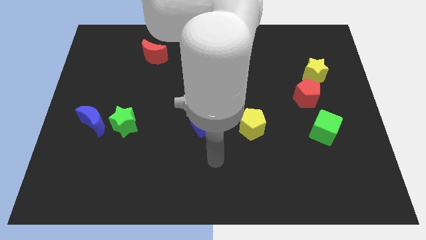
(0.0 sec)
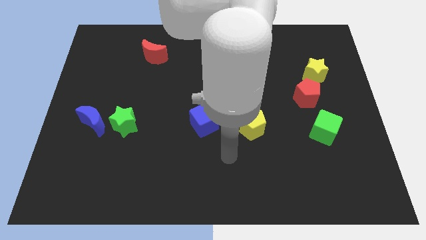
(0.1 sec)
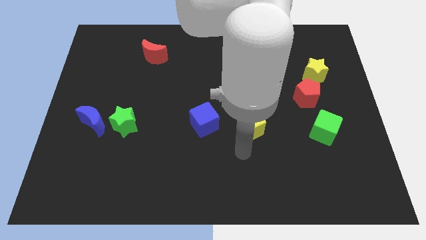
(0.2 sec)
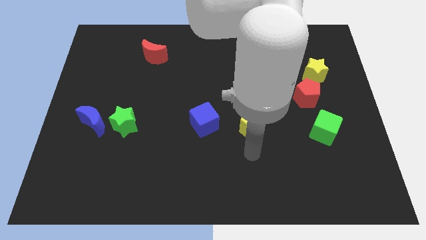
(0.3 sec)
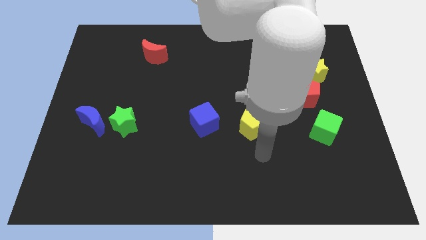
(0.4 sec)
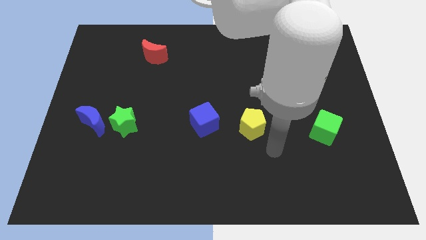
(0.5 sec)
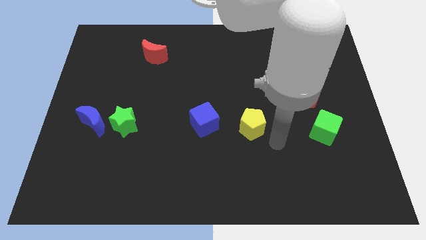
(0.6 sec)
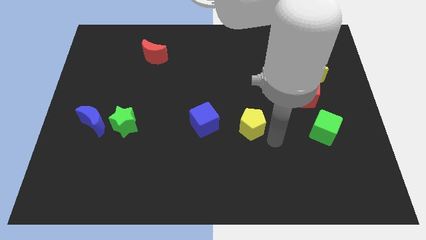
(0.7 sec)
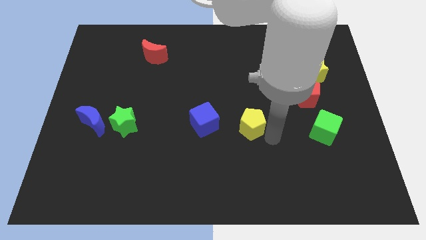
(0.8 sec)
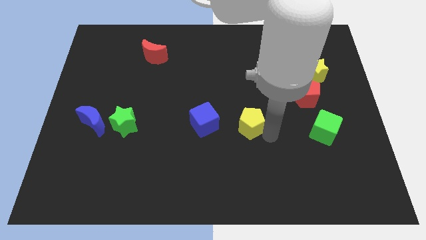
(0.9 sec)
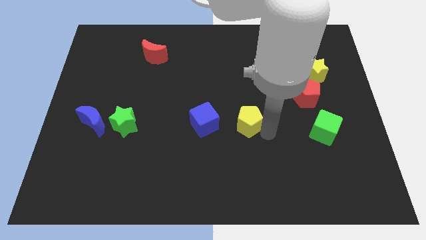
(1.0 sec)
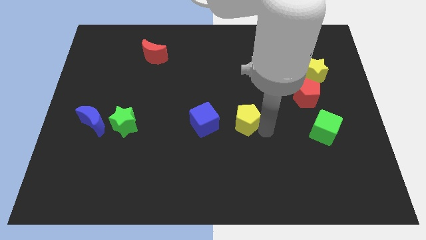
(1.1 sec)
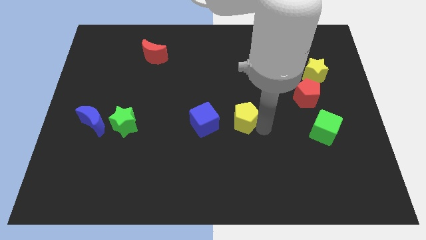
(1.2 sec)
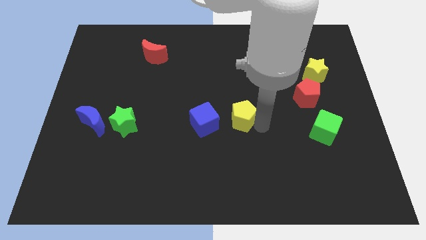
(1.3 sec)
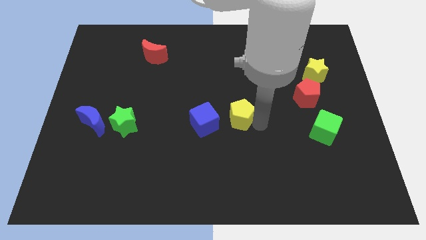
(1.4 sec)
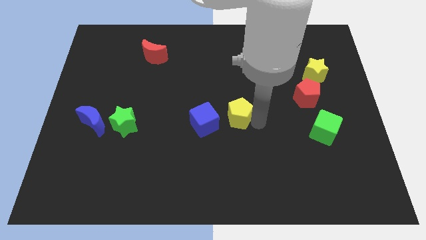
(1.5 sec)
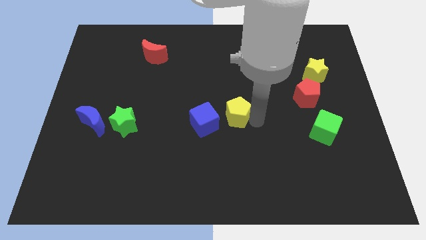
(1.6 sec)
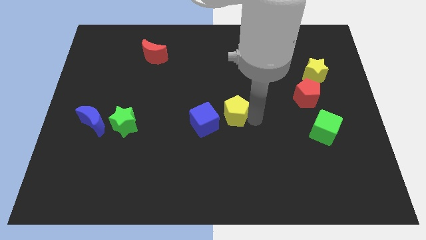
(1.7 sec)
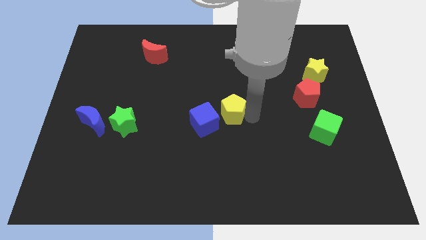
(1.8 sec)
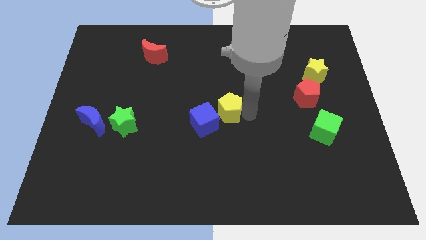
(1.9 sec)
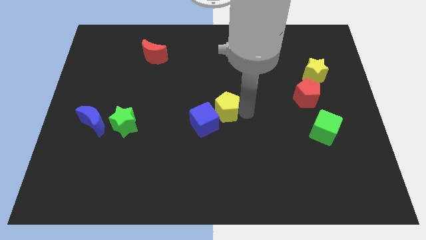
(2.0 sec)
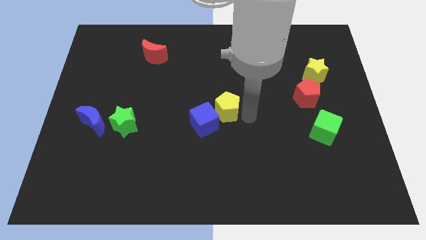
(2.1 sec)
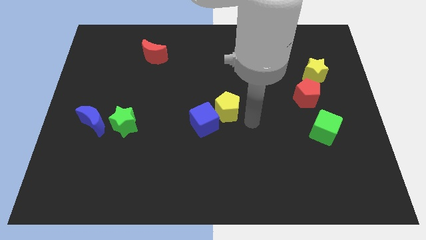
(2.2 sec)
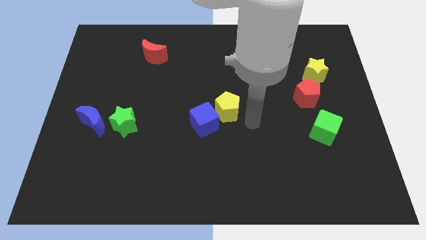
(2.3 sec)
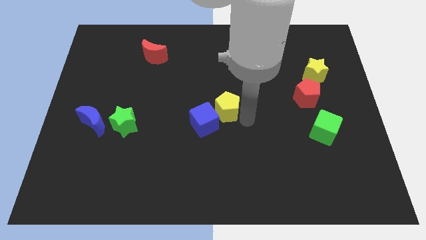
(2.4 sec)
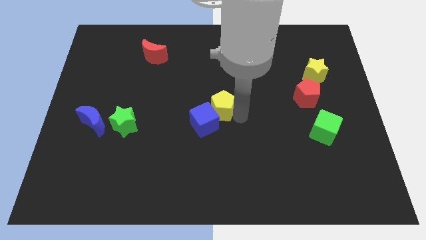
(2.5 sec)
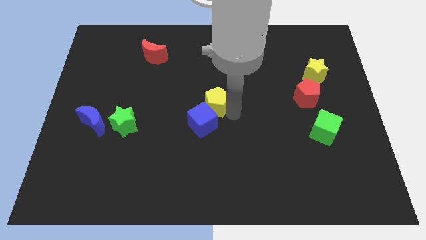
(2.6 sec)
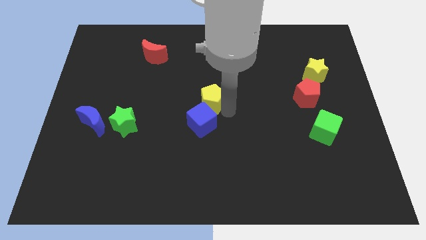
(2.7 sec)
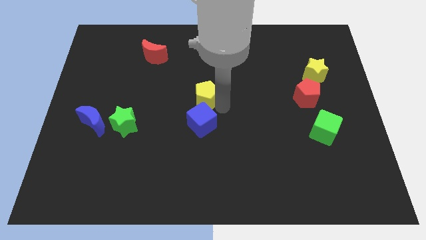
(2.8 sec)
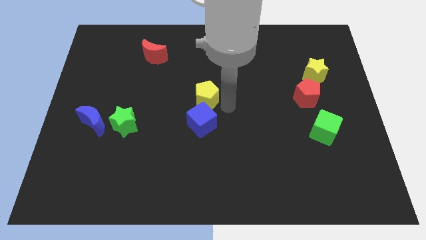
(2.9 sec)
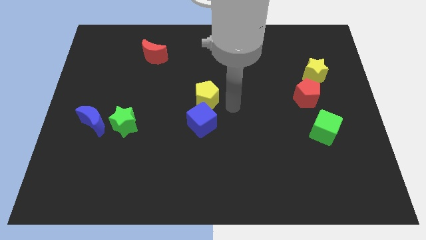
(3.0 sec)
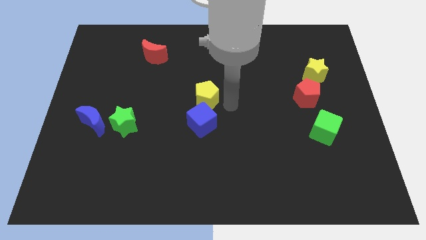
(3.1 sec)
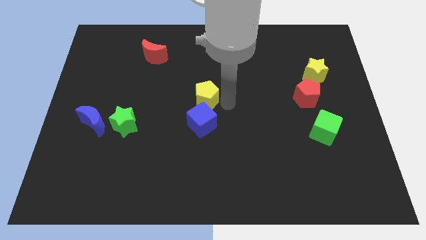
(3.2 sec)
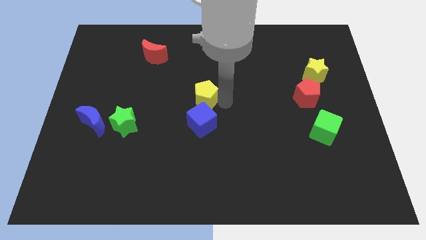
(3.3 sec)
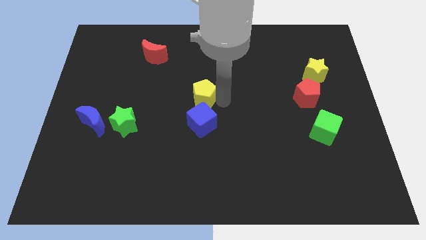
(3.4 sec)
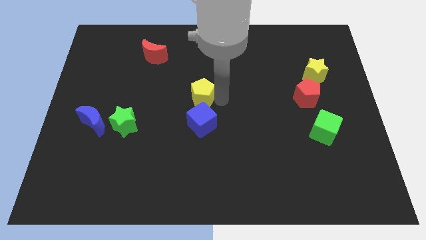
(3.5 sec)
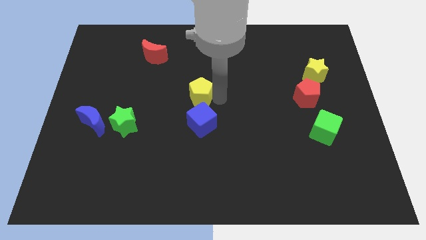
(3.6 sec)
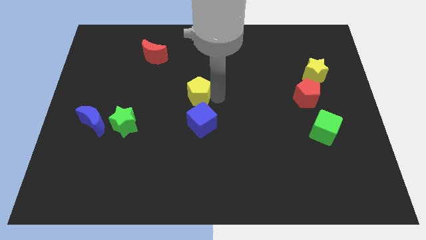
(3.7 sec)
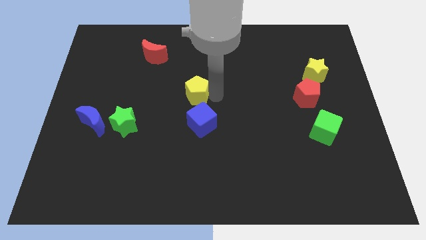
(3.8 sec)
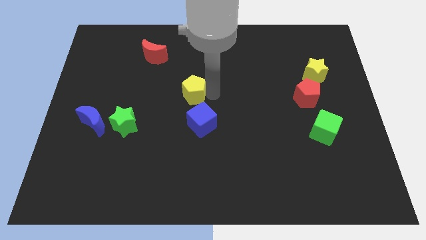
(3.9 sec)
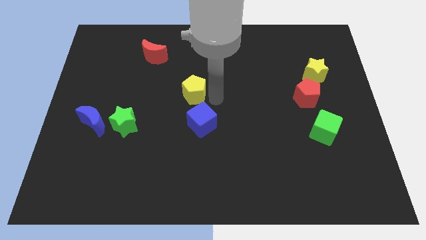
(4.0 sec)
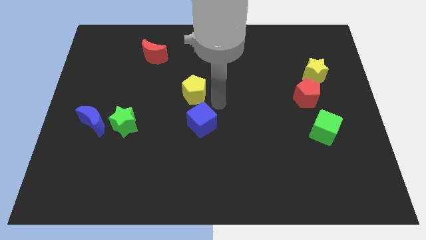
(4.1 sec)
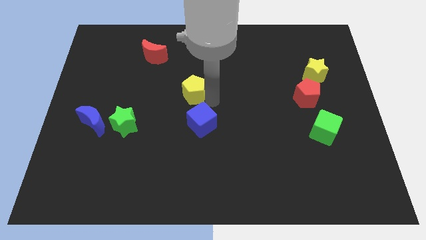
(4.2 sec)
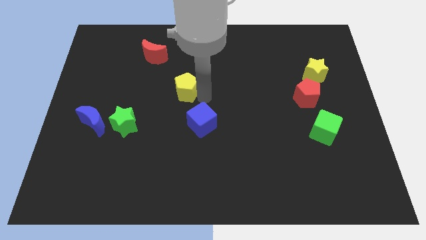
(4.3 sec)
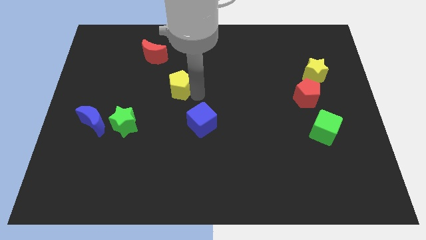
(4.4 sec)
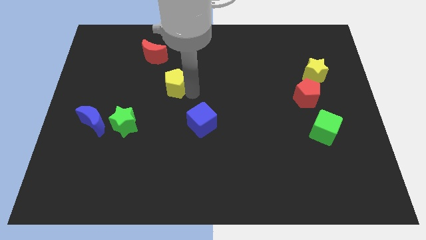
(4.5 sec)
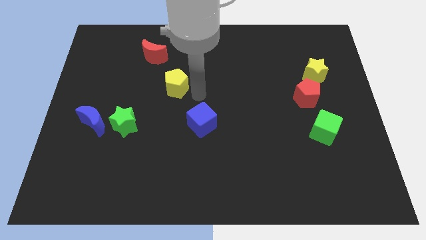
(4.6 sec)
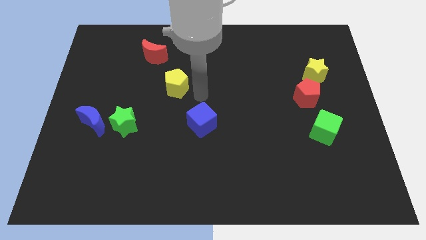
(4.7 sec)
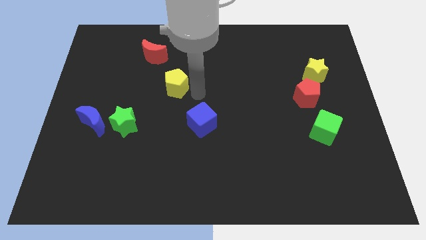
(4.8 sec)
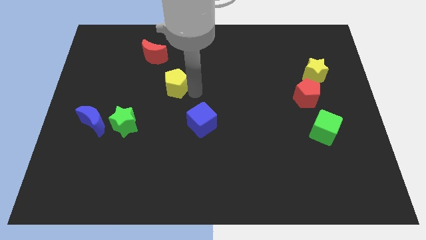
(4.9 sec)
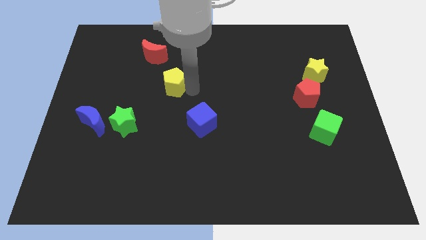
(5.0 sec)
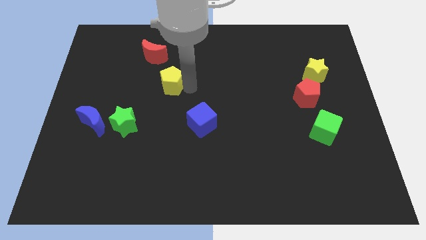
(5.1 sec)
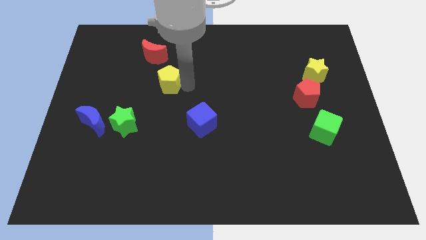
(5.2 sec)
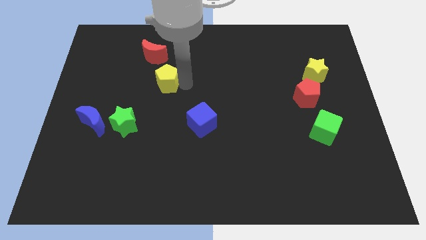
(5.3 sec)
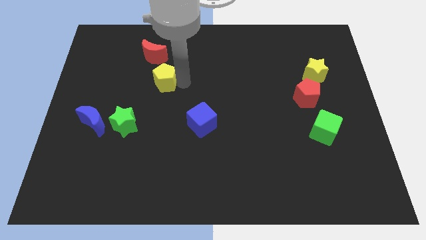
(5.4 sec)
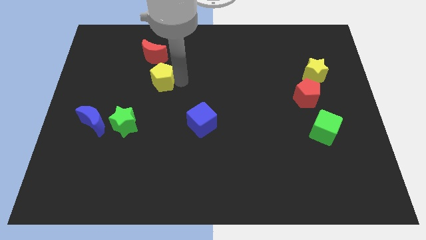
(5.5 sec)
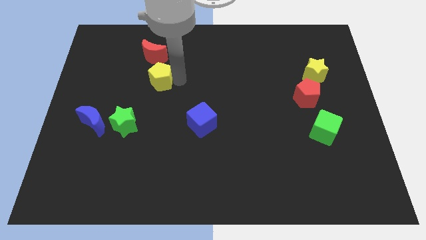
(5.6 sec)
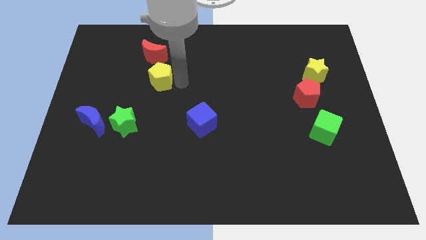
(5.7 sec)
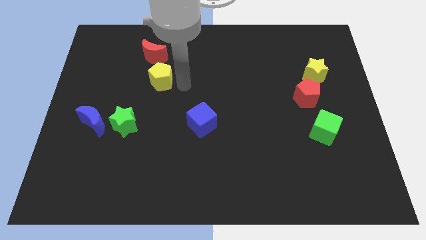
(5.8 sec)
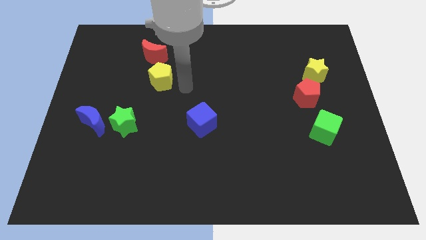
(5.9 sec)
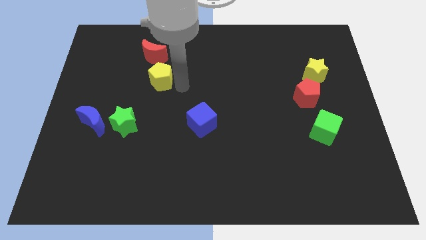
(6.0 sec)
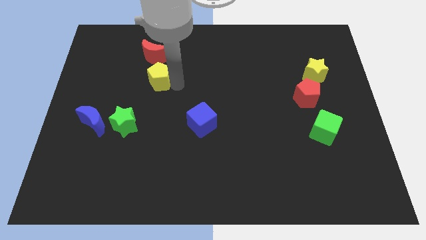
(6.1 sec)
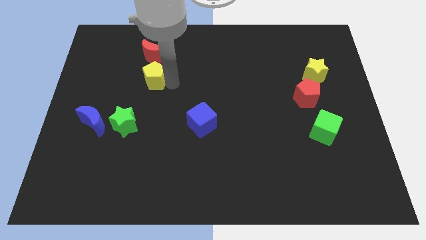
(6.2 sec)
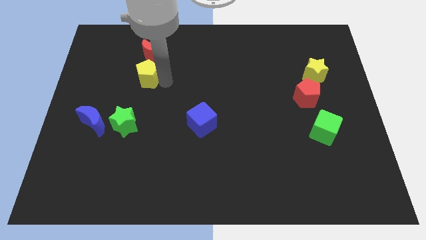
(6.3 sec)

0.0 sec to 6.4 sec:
move the yellow pentagon to the bottom left of the red moon

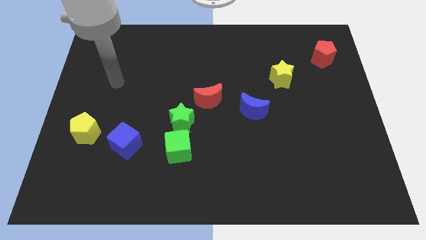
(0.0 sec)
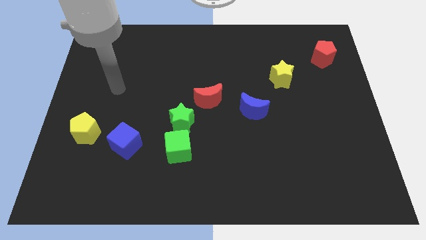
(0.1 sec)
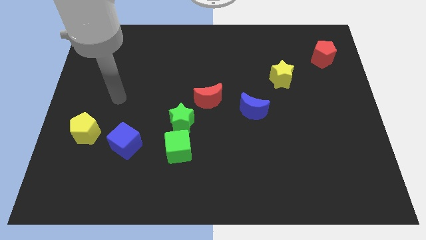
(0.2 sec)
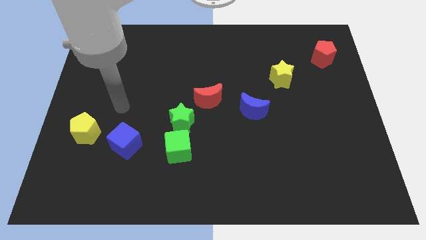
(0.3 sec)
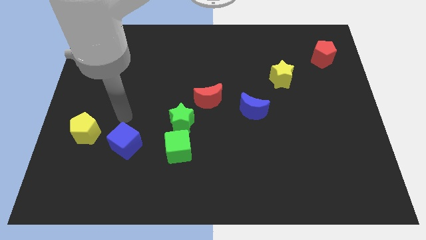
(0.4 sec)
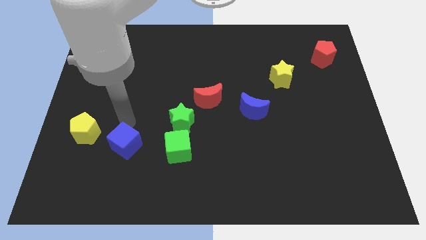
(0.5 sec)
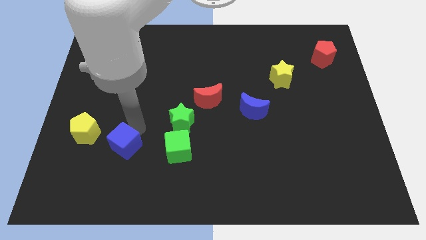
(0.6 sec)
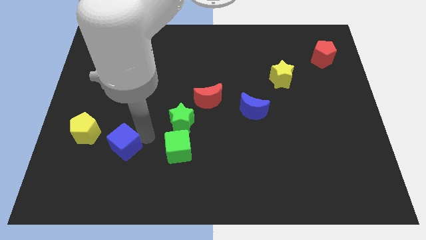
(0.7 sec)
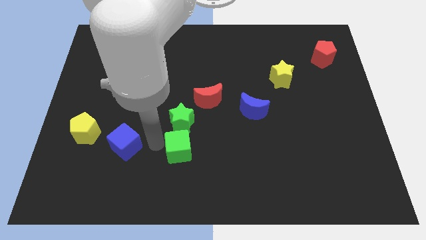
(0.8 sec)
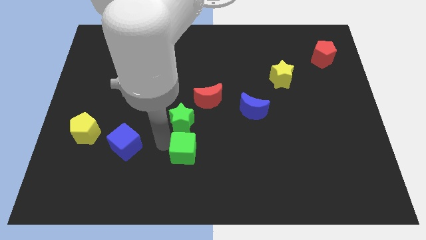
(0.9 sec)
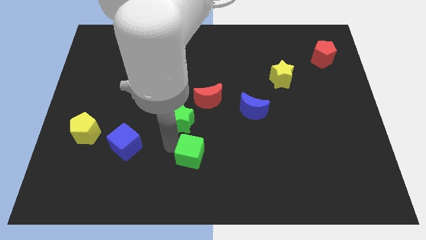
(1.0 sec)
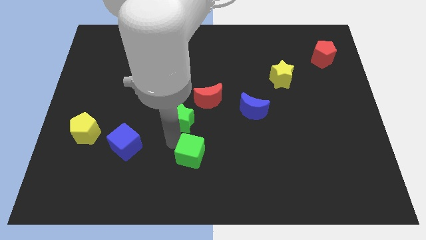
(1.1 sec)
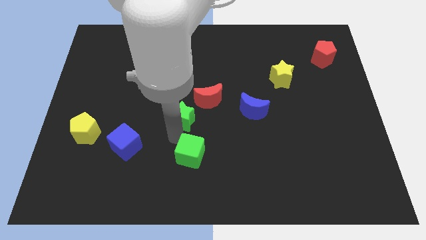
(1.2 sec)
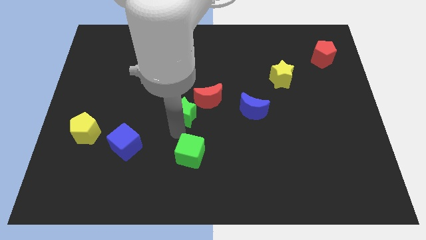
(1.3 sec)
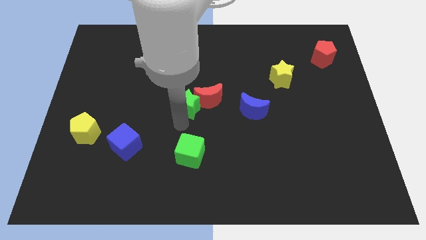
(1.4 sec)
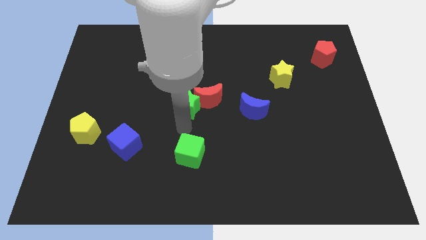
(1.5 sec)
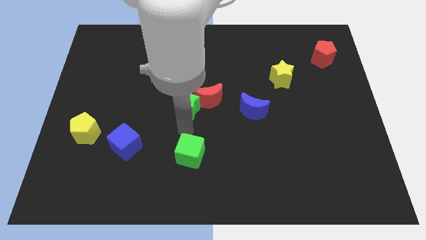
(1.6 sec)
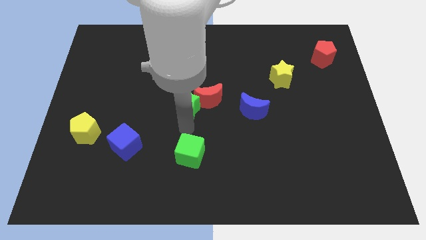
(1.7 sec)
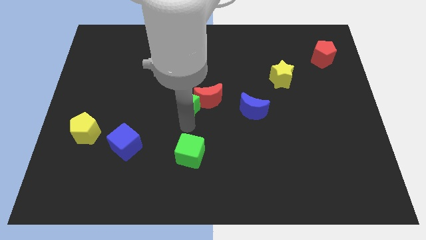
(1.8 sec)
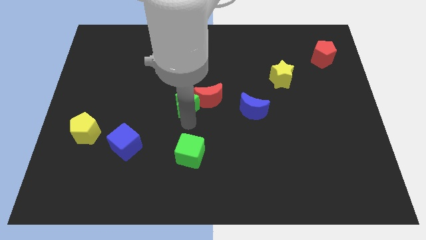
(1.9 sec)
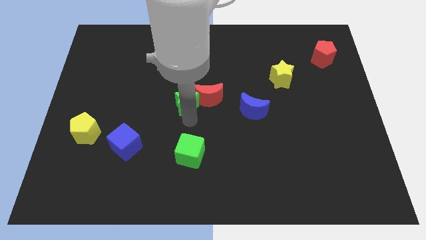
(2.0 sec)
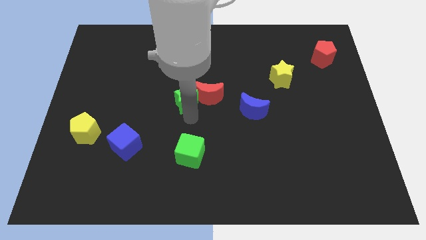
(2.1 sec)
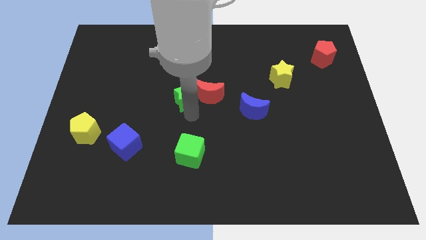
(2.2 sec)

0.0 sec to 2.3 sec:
slide the green star to the top left of the red moon
